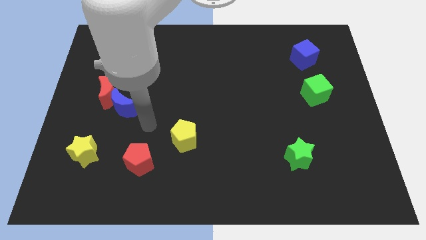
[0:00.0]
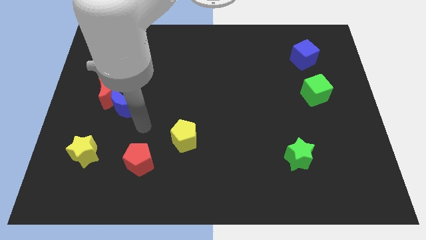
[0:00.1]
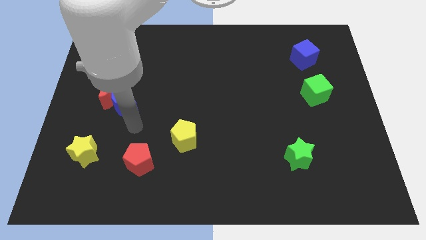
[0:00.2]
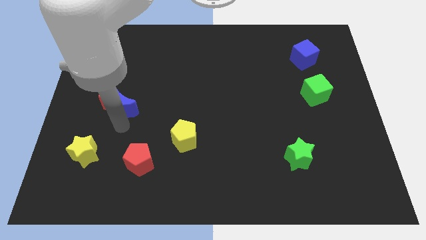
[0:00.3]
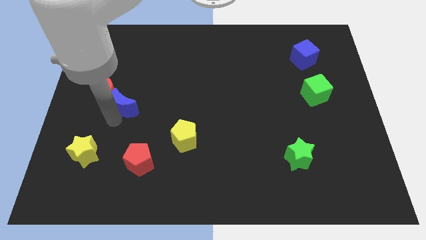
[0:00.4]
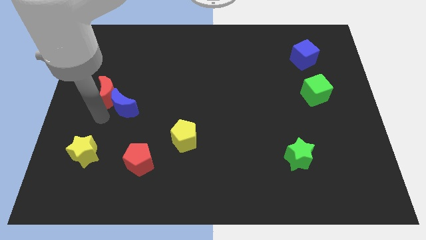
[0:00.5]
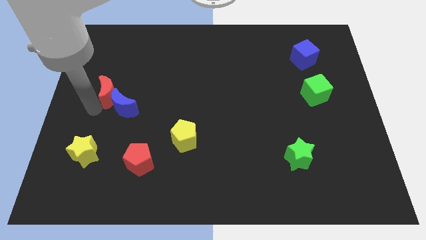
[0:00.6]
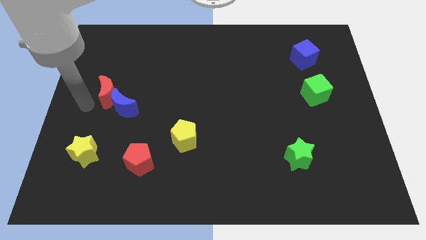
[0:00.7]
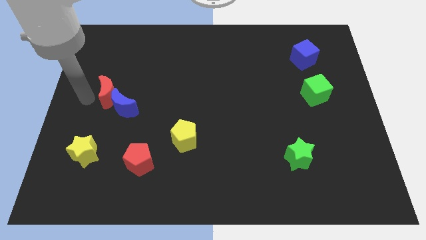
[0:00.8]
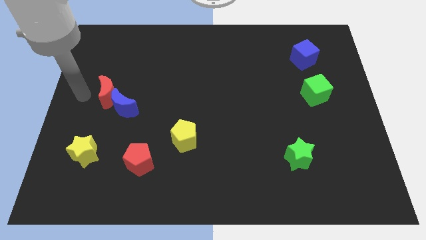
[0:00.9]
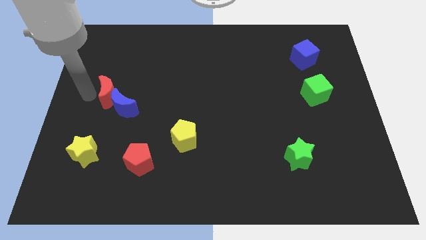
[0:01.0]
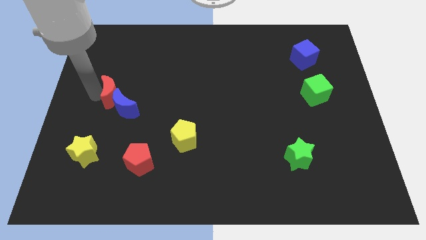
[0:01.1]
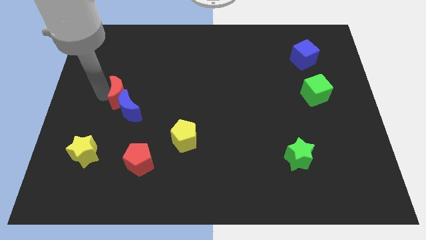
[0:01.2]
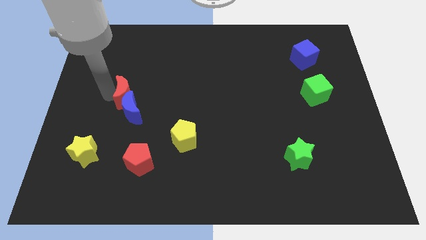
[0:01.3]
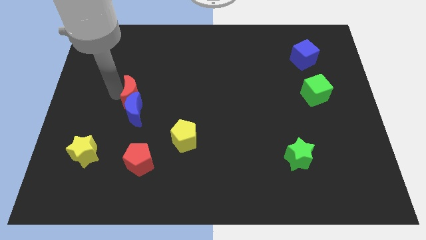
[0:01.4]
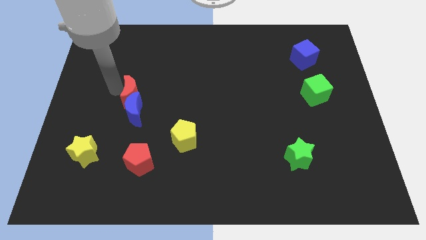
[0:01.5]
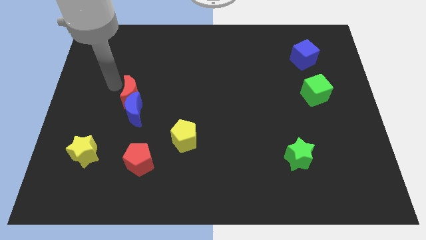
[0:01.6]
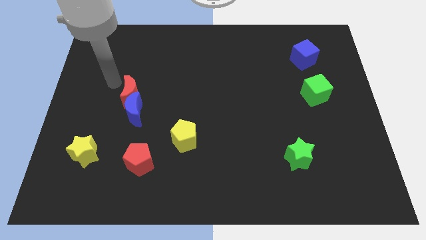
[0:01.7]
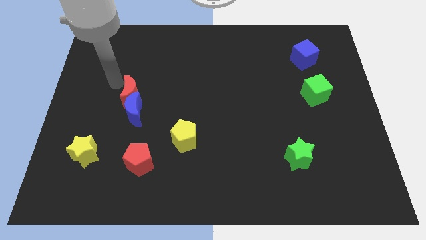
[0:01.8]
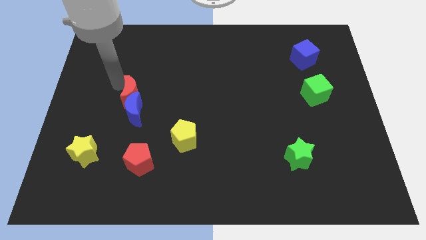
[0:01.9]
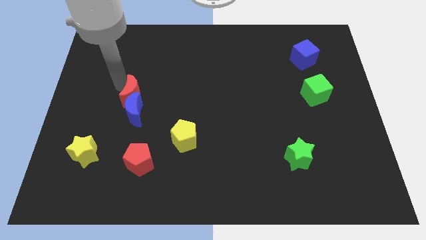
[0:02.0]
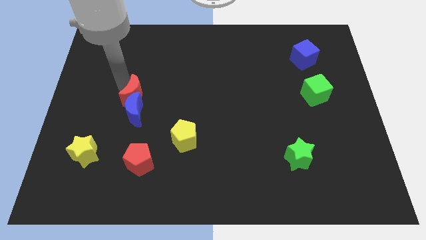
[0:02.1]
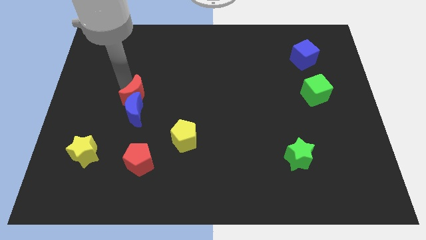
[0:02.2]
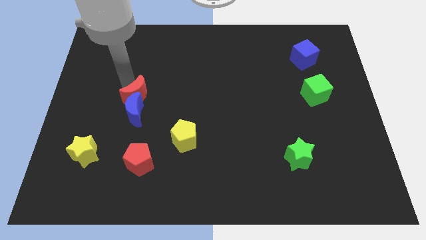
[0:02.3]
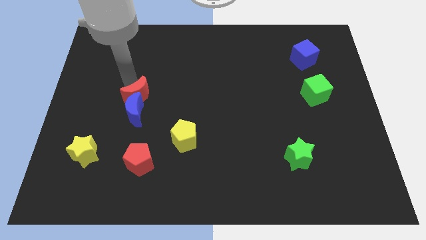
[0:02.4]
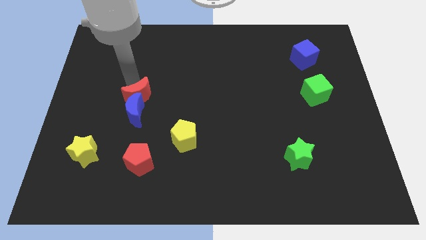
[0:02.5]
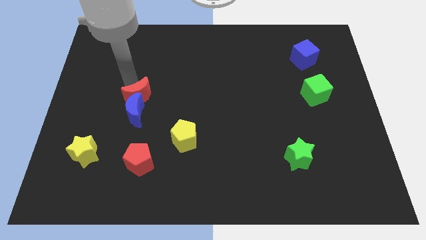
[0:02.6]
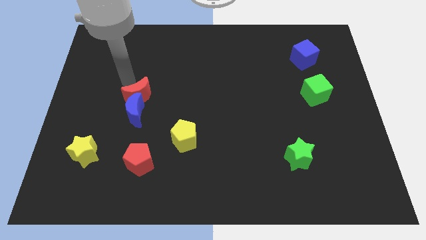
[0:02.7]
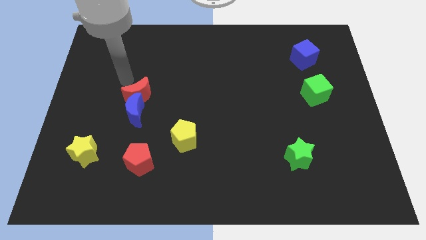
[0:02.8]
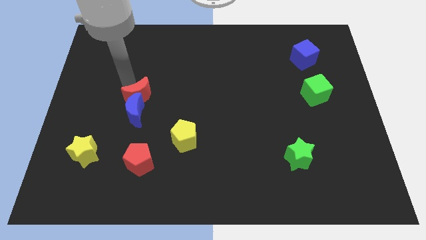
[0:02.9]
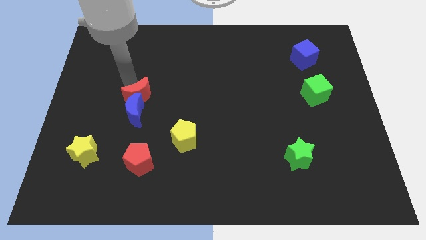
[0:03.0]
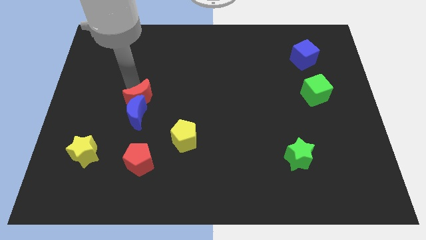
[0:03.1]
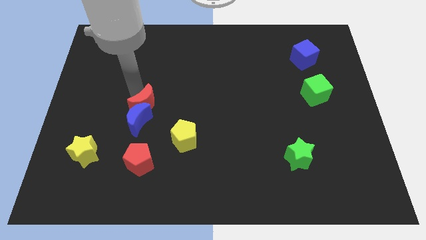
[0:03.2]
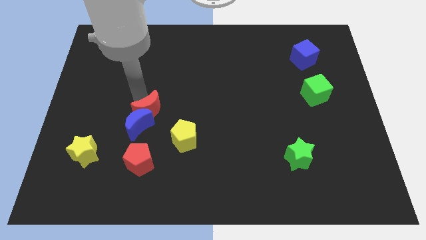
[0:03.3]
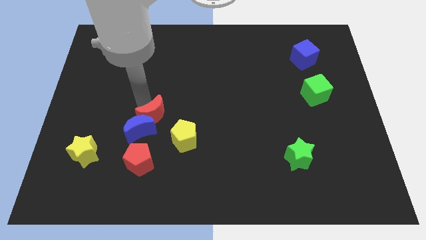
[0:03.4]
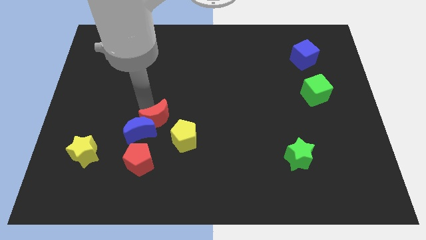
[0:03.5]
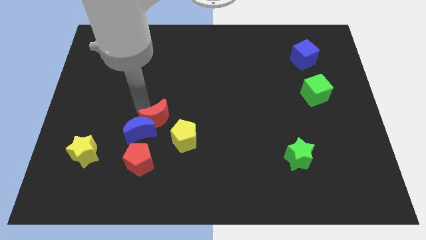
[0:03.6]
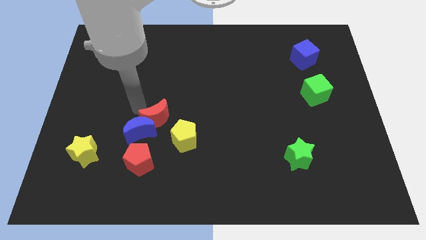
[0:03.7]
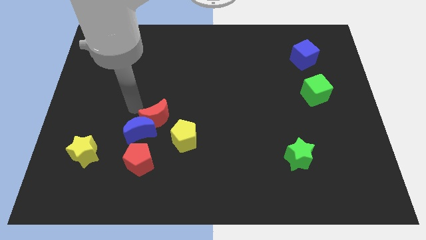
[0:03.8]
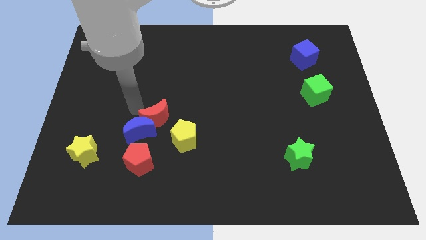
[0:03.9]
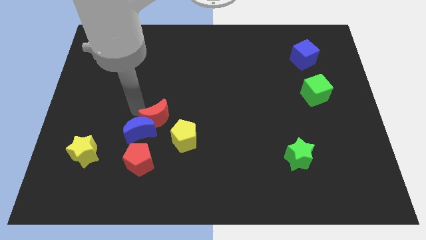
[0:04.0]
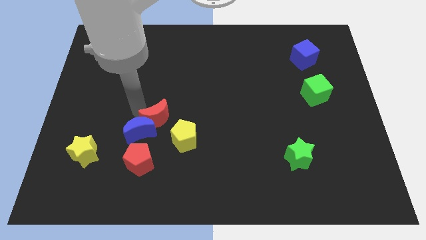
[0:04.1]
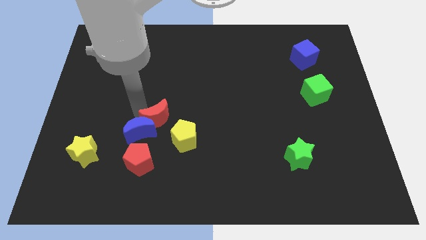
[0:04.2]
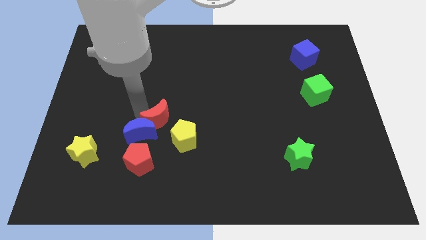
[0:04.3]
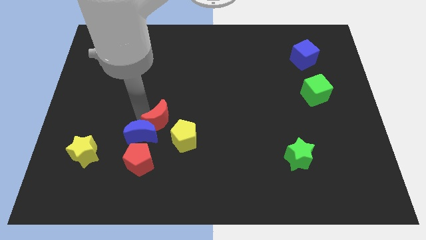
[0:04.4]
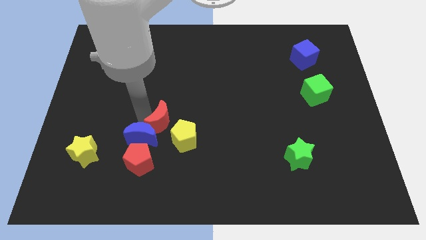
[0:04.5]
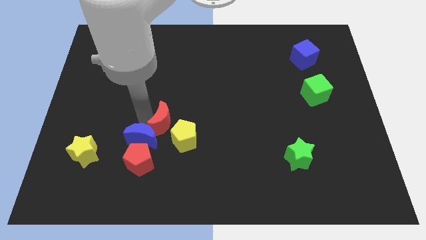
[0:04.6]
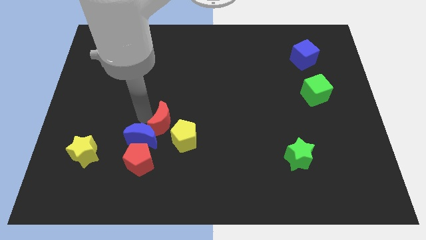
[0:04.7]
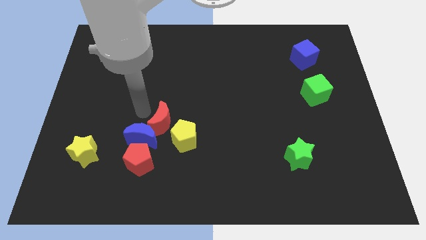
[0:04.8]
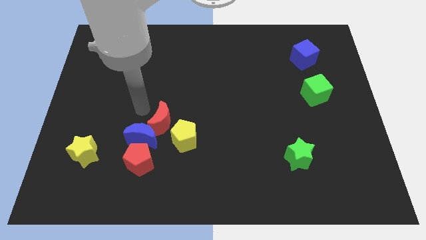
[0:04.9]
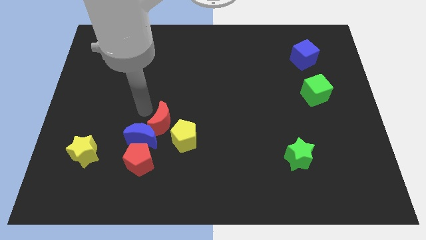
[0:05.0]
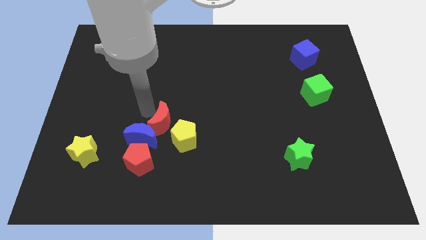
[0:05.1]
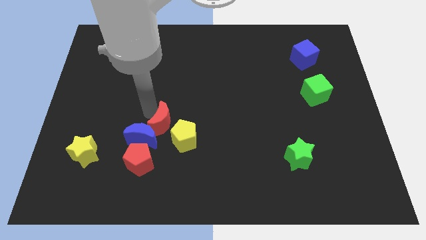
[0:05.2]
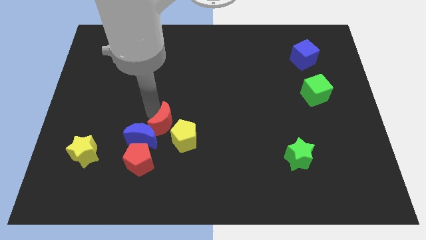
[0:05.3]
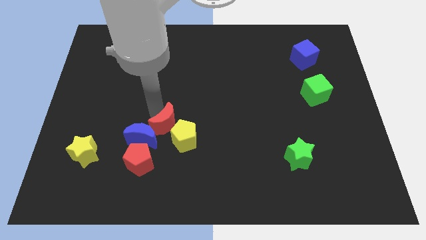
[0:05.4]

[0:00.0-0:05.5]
push the red moon close to the yellow pentagon

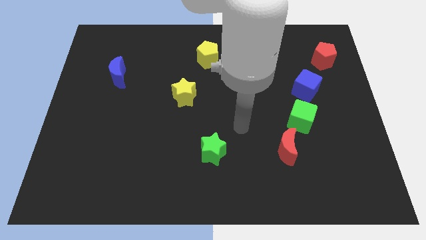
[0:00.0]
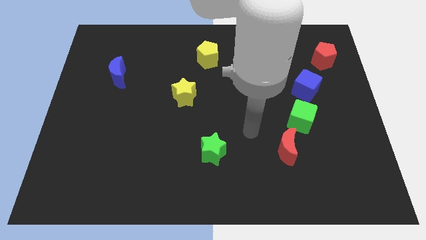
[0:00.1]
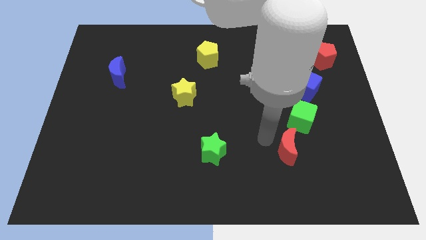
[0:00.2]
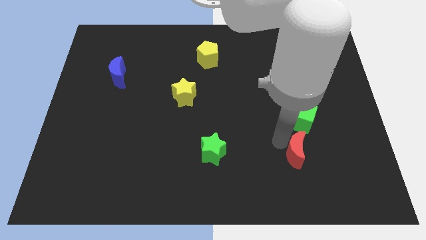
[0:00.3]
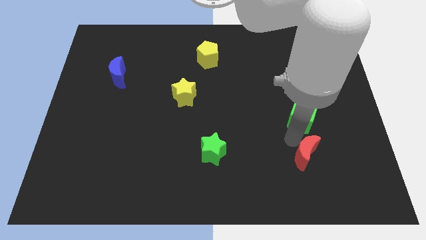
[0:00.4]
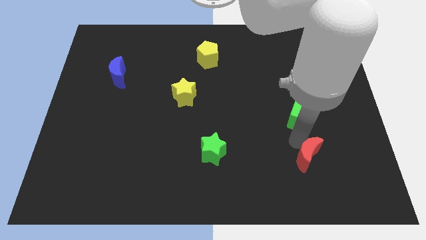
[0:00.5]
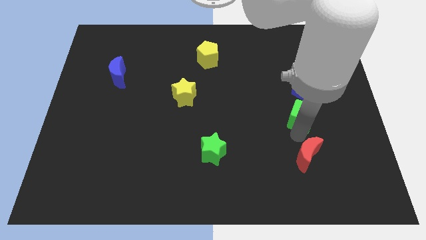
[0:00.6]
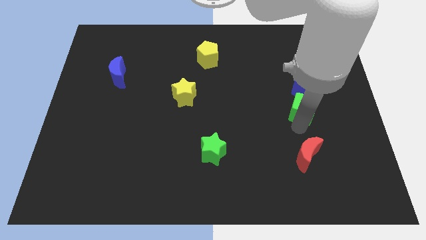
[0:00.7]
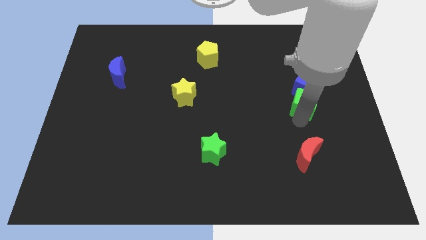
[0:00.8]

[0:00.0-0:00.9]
push the green cube close to the blue cube
